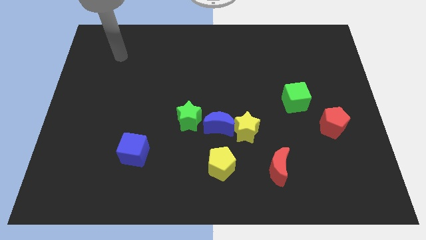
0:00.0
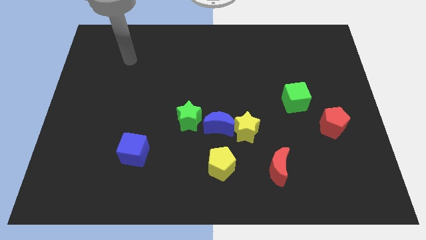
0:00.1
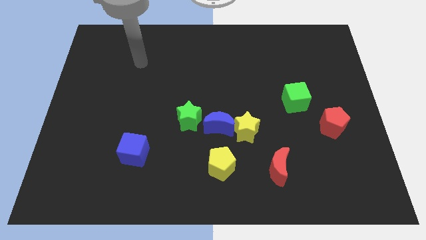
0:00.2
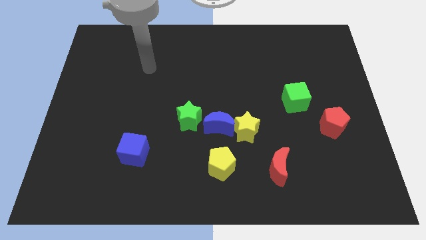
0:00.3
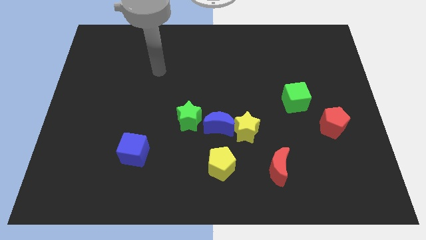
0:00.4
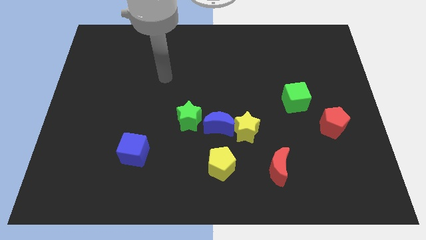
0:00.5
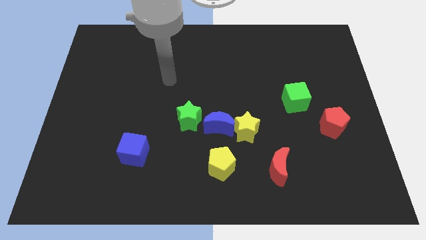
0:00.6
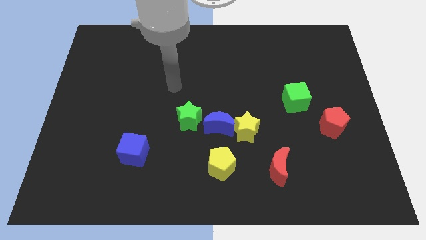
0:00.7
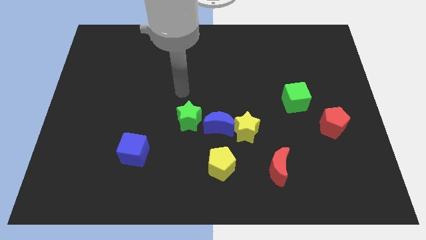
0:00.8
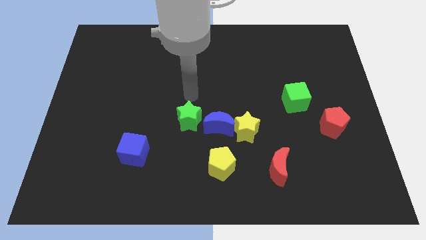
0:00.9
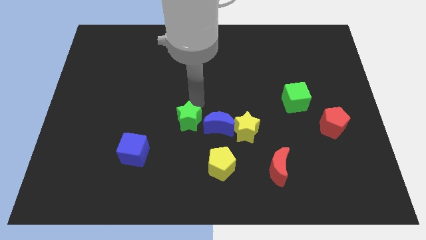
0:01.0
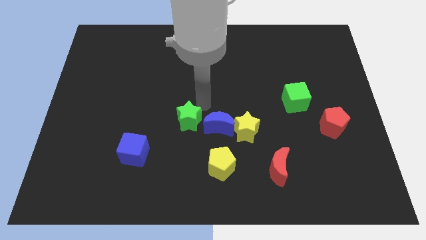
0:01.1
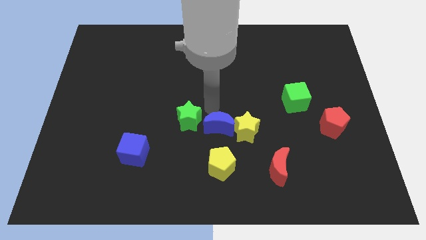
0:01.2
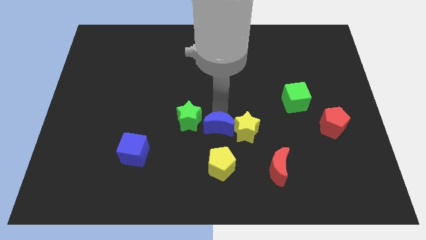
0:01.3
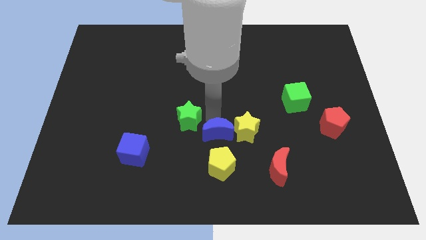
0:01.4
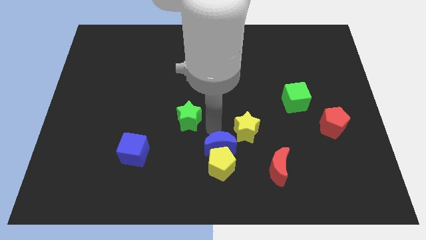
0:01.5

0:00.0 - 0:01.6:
pull the green star apart from the blue moon

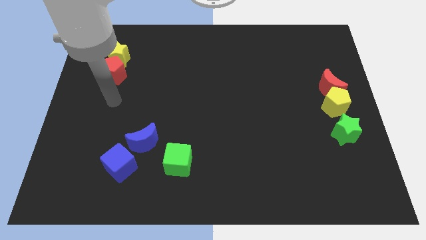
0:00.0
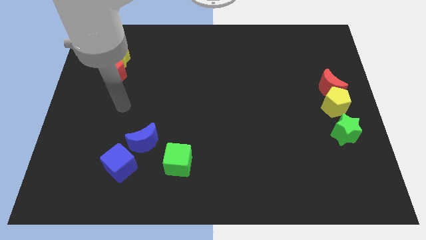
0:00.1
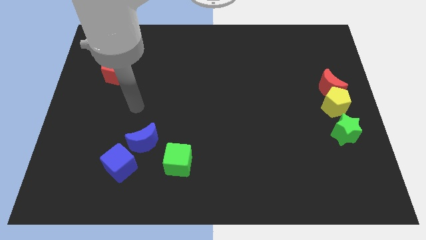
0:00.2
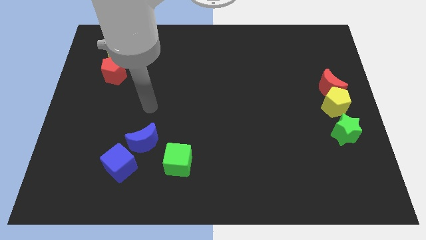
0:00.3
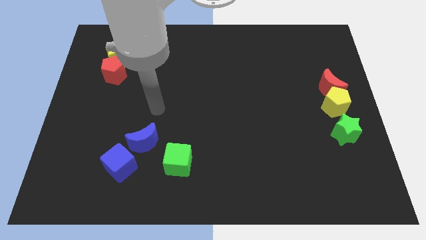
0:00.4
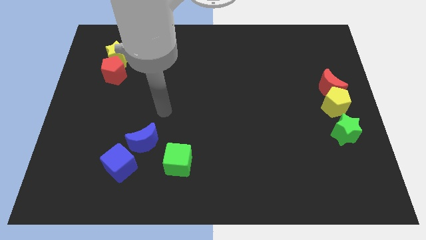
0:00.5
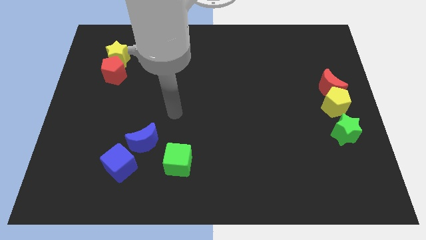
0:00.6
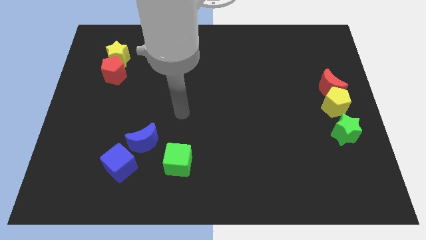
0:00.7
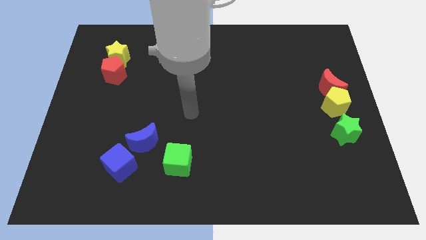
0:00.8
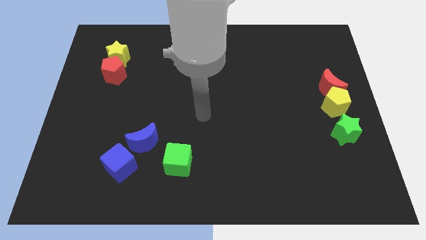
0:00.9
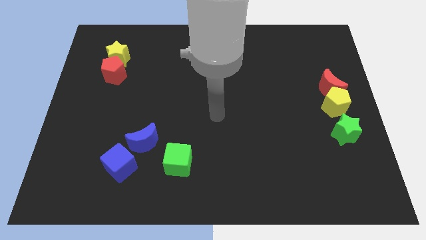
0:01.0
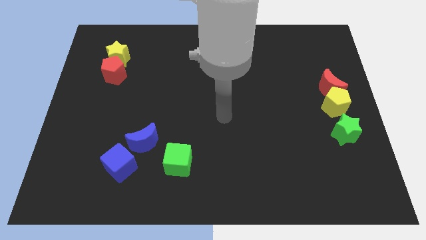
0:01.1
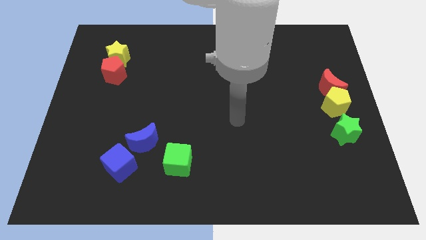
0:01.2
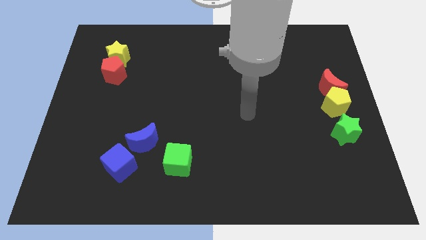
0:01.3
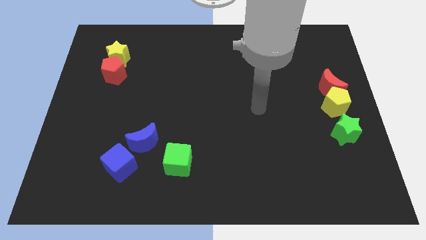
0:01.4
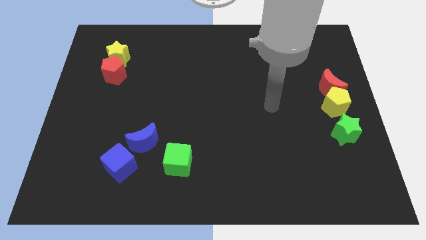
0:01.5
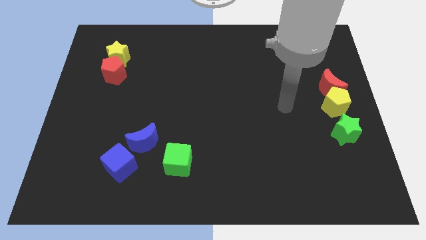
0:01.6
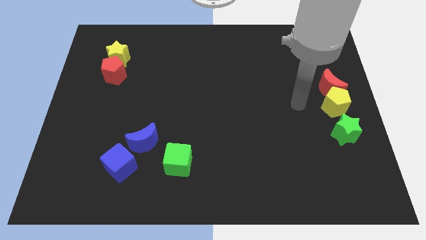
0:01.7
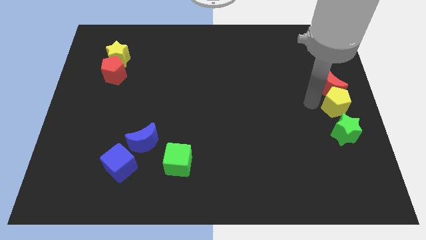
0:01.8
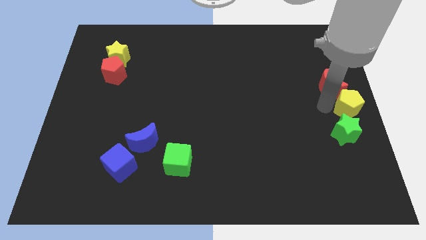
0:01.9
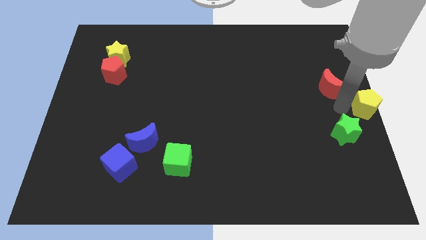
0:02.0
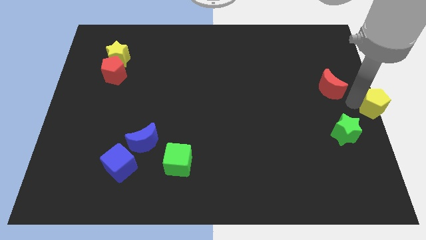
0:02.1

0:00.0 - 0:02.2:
pull the red moon apart from the yellow pentagon

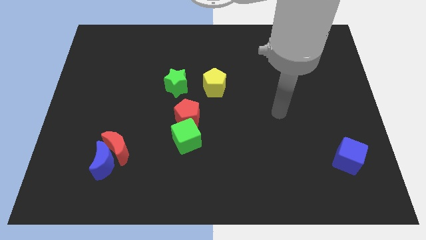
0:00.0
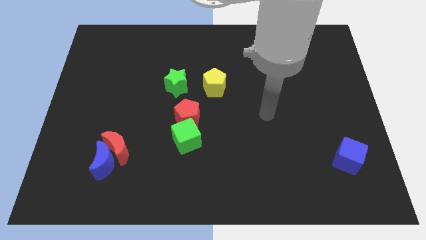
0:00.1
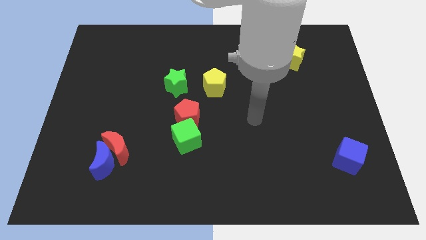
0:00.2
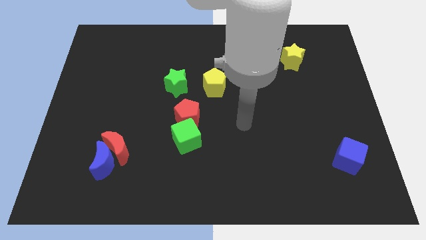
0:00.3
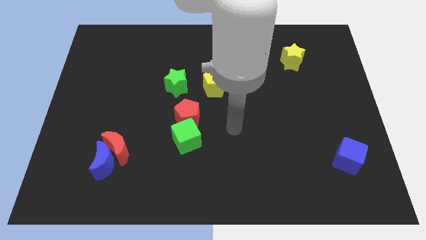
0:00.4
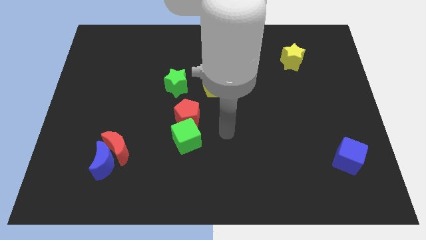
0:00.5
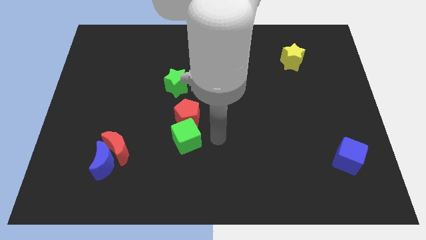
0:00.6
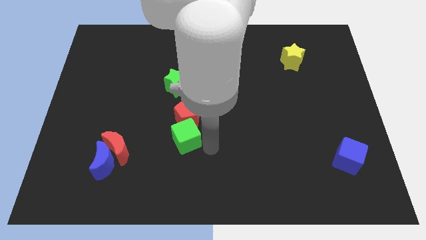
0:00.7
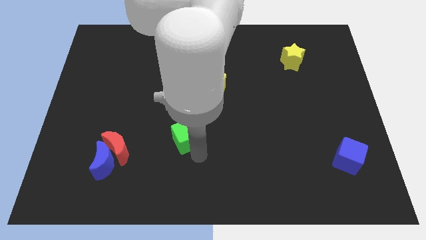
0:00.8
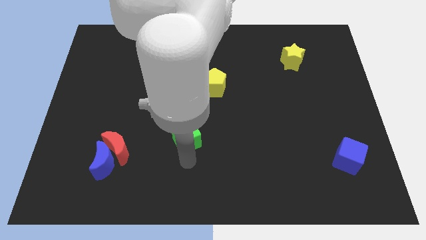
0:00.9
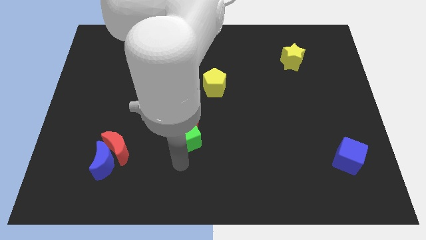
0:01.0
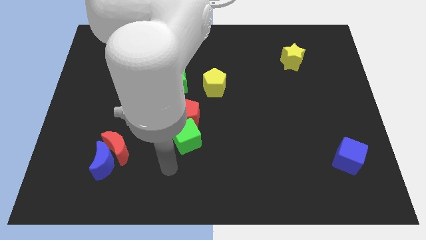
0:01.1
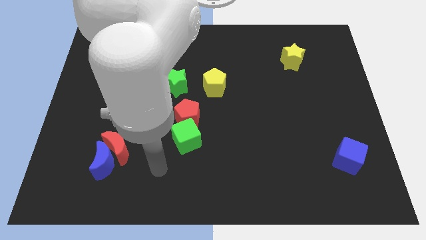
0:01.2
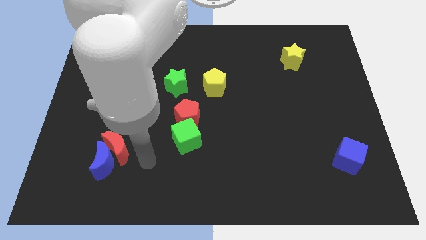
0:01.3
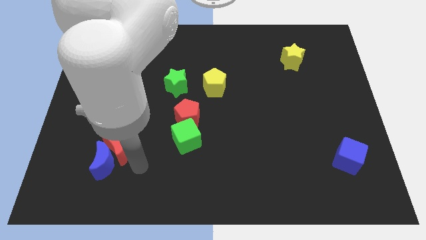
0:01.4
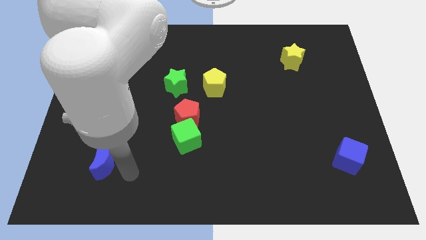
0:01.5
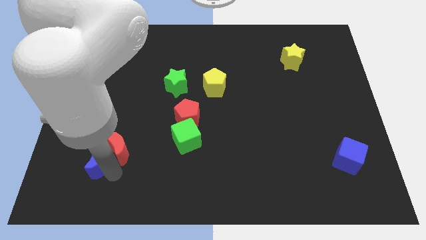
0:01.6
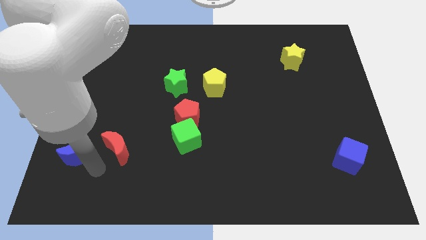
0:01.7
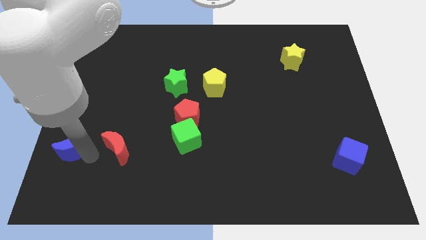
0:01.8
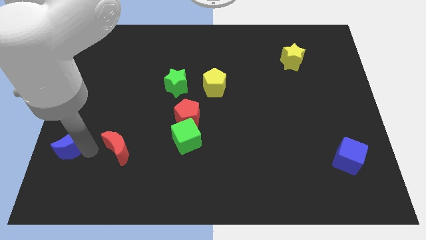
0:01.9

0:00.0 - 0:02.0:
separate the red moon from the blue moon

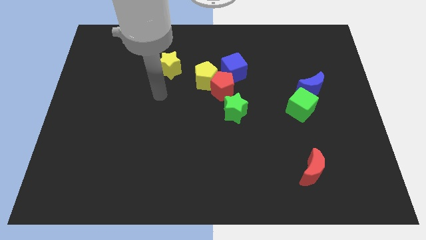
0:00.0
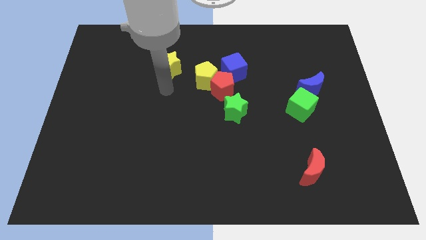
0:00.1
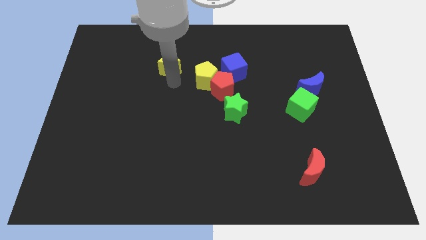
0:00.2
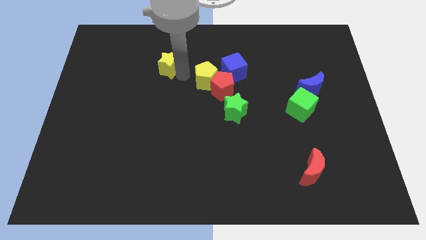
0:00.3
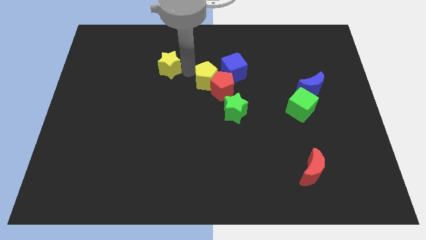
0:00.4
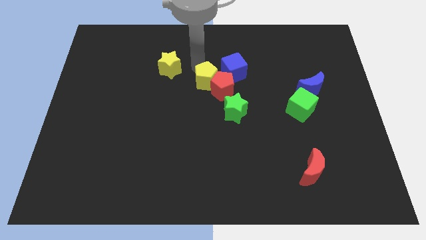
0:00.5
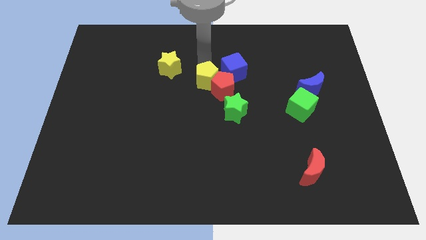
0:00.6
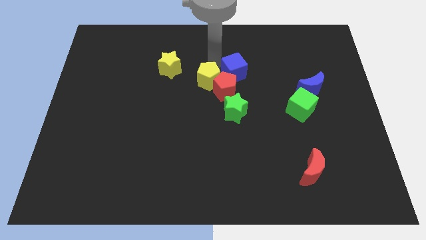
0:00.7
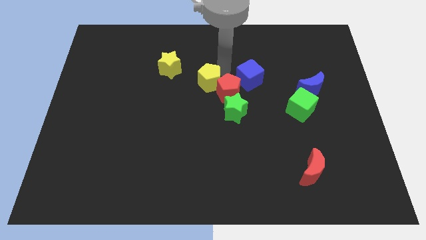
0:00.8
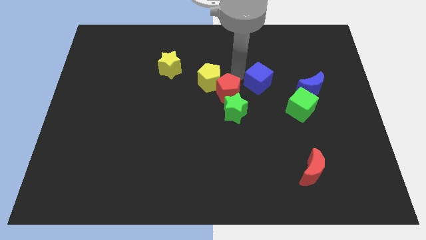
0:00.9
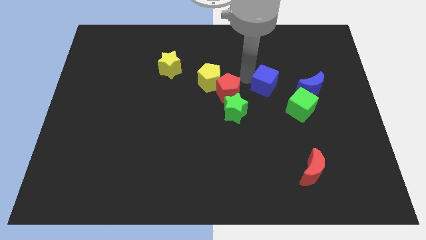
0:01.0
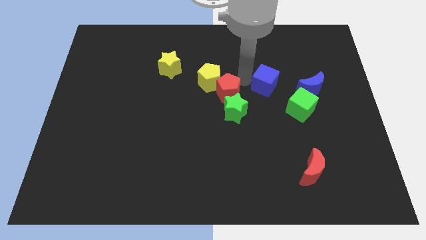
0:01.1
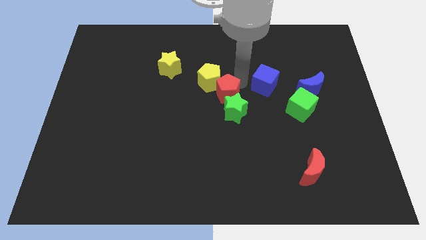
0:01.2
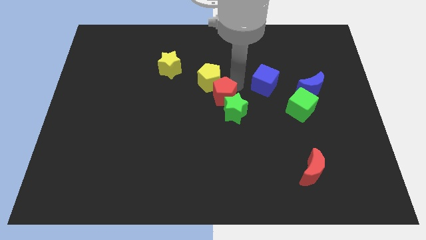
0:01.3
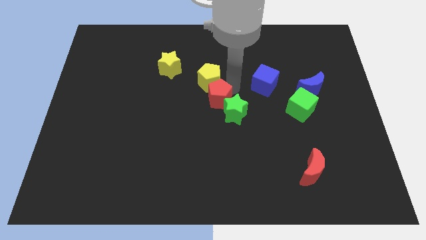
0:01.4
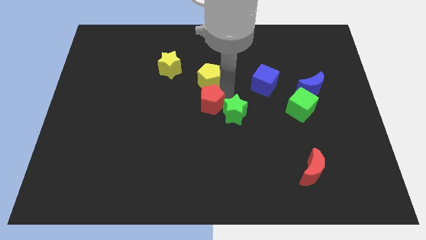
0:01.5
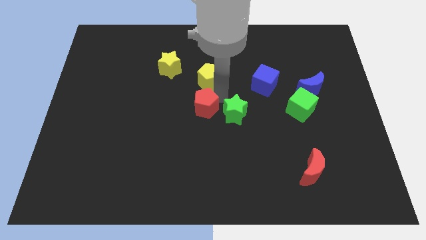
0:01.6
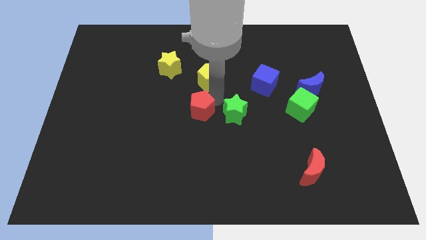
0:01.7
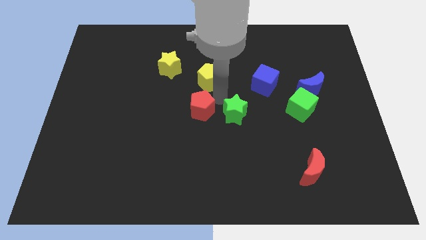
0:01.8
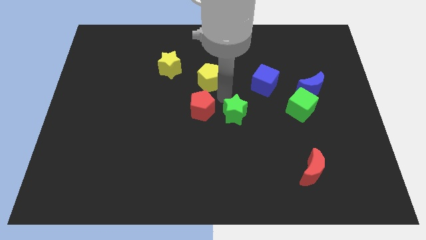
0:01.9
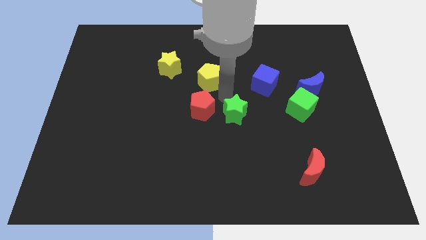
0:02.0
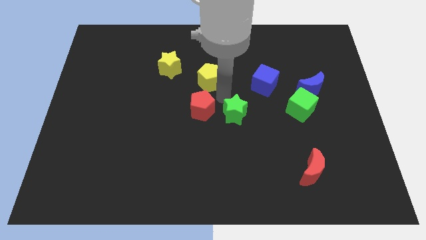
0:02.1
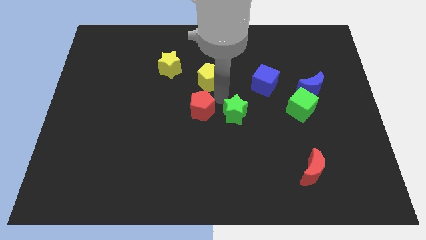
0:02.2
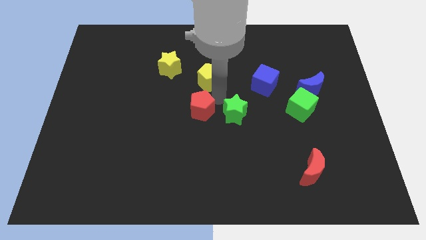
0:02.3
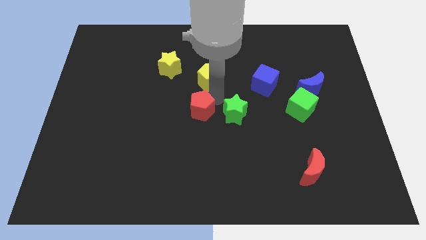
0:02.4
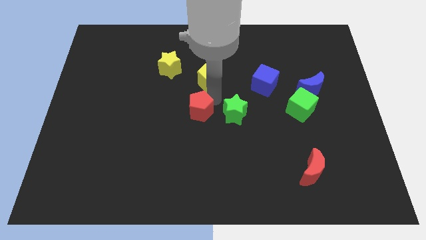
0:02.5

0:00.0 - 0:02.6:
move the red pentagon away from the group of blocks

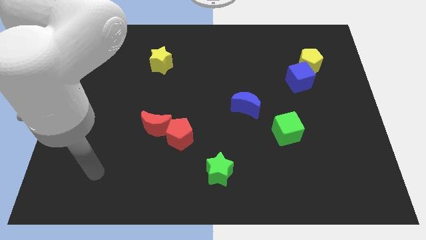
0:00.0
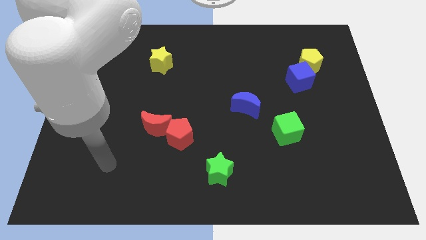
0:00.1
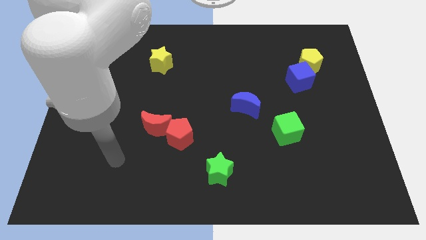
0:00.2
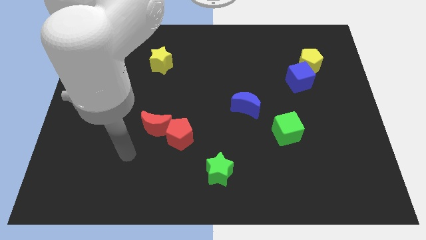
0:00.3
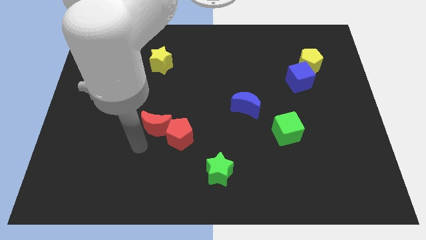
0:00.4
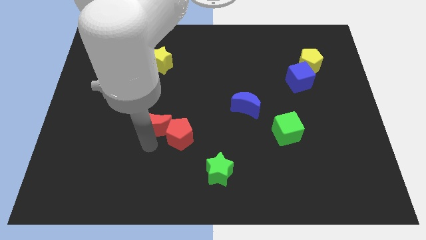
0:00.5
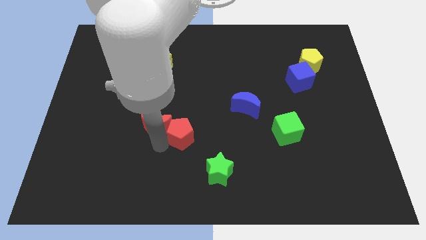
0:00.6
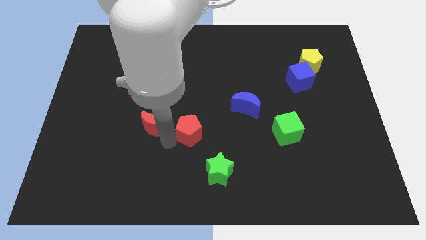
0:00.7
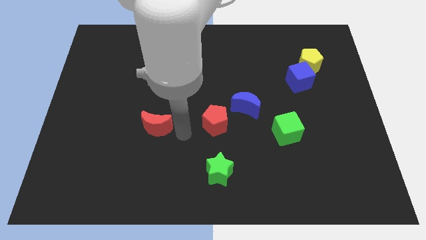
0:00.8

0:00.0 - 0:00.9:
pull the red moon apart from the red pentagon

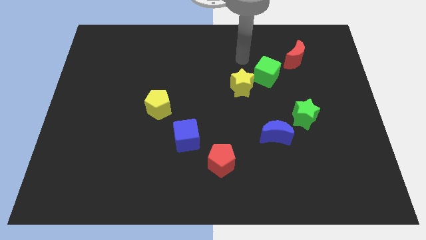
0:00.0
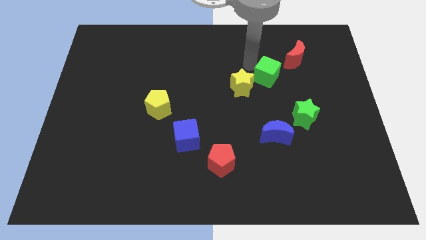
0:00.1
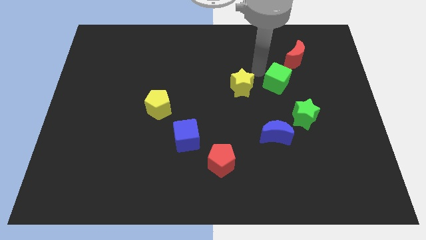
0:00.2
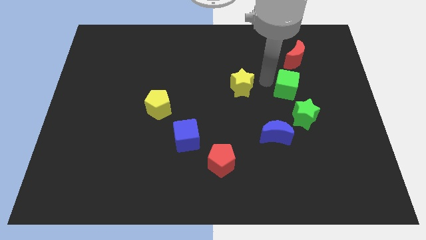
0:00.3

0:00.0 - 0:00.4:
move the yellow star away from the green cube
